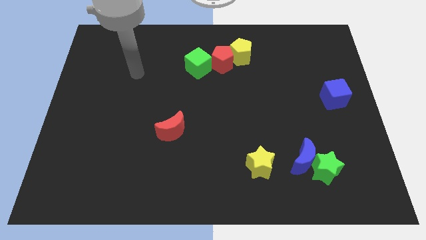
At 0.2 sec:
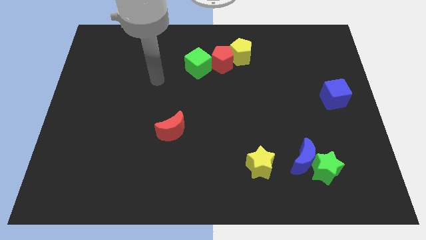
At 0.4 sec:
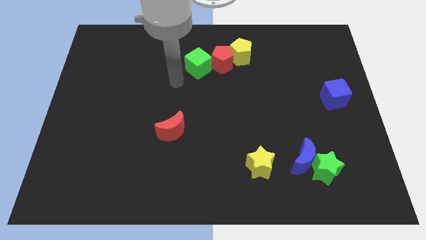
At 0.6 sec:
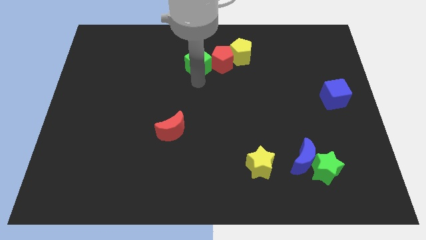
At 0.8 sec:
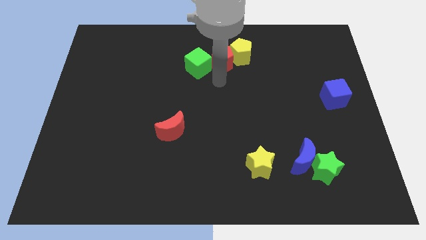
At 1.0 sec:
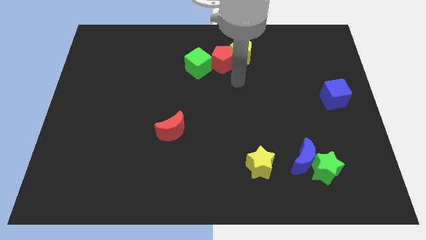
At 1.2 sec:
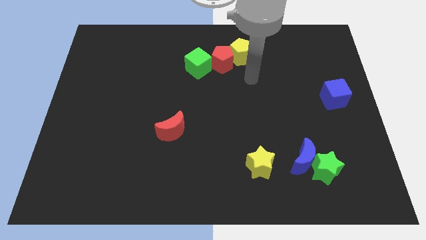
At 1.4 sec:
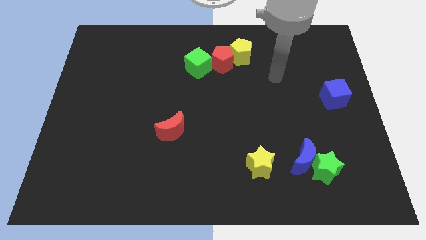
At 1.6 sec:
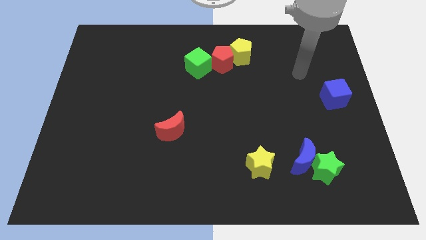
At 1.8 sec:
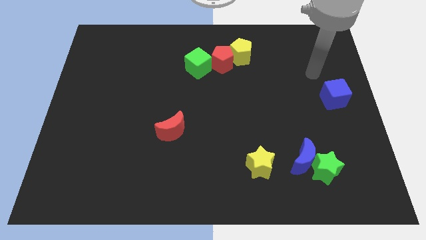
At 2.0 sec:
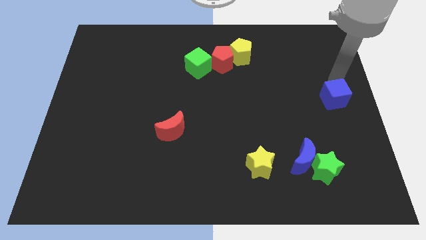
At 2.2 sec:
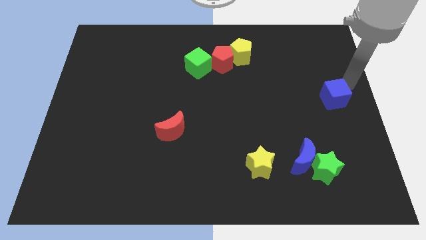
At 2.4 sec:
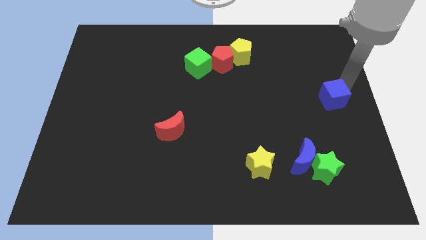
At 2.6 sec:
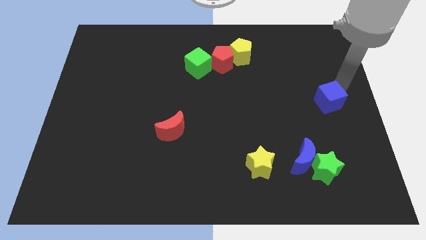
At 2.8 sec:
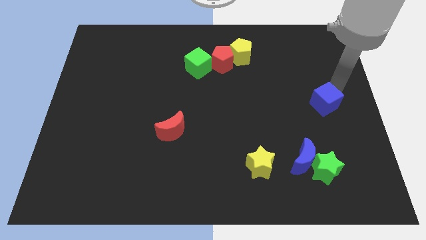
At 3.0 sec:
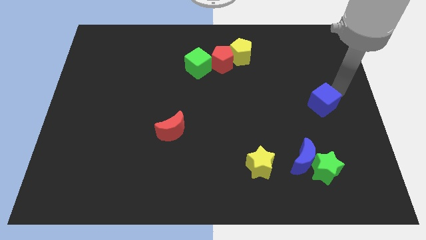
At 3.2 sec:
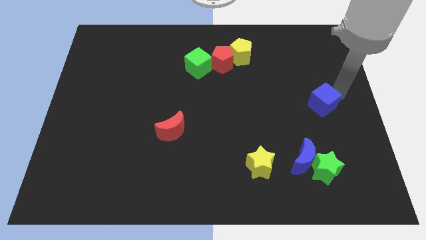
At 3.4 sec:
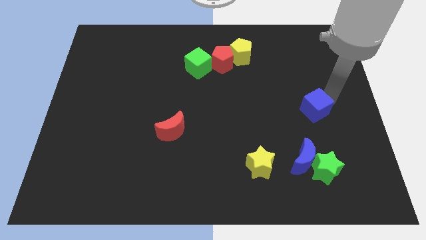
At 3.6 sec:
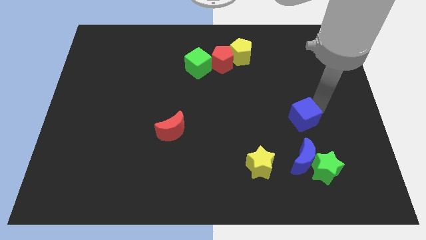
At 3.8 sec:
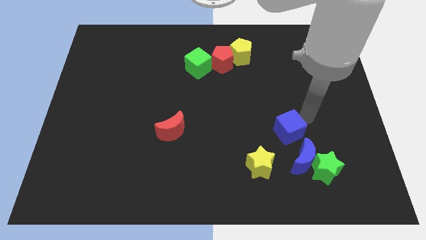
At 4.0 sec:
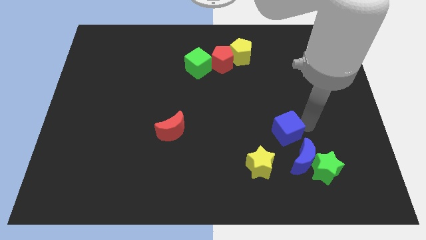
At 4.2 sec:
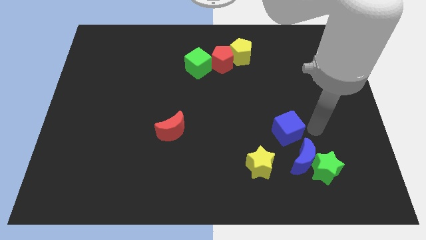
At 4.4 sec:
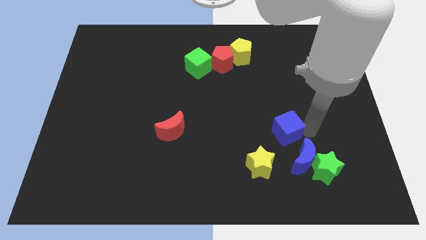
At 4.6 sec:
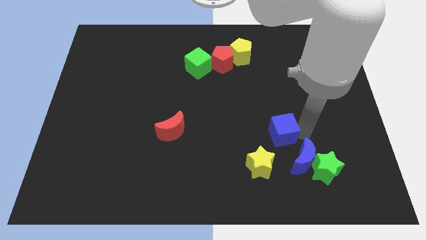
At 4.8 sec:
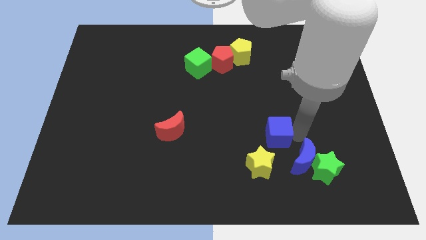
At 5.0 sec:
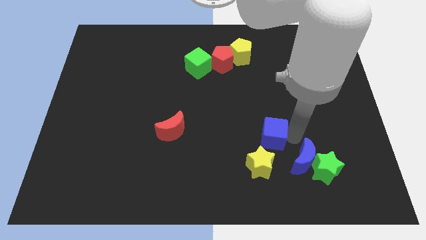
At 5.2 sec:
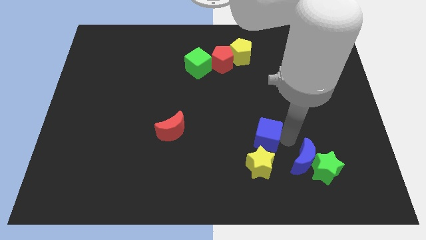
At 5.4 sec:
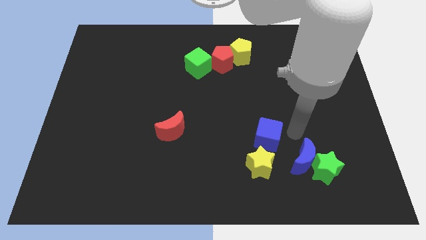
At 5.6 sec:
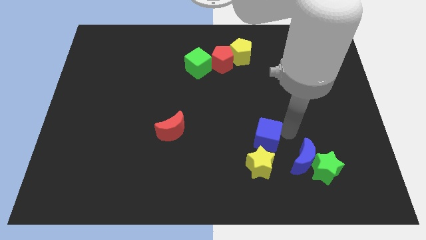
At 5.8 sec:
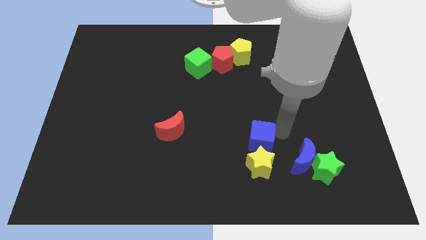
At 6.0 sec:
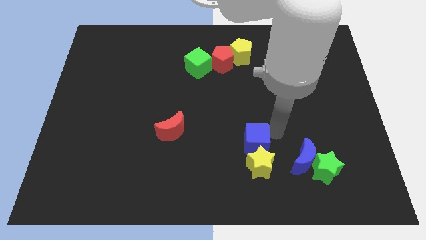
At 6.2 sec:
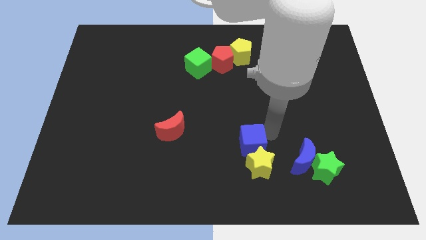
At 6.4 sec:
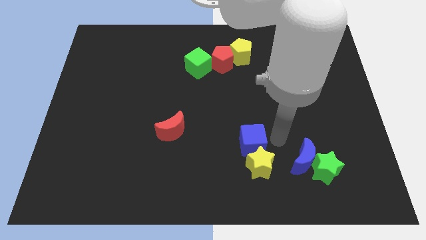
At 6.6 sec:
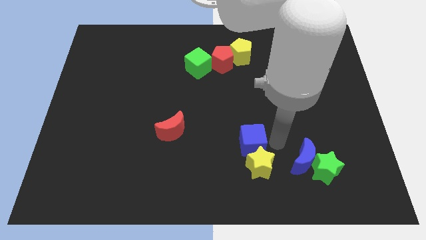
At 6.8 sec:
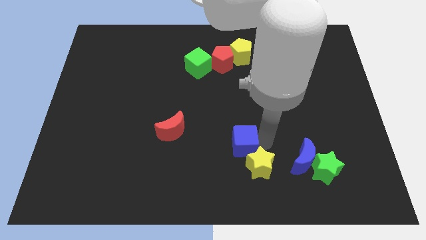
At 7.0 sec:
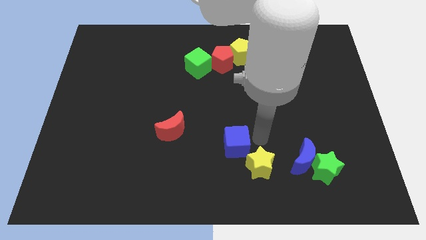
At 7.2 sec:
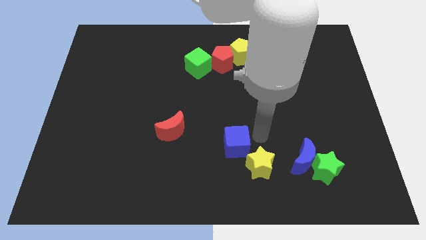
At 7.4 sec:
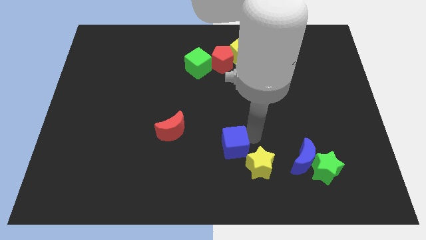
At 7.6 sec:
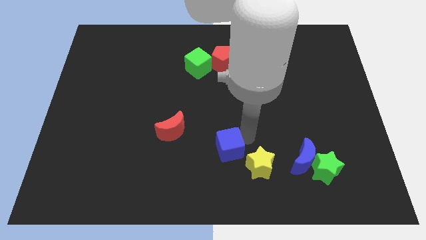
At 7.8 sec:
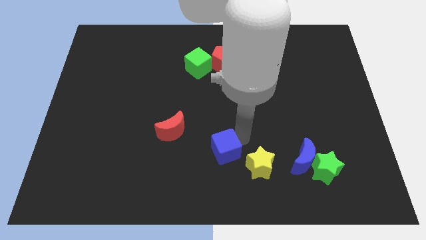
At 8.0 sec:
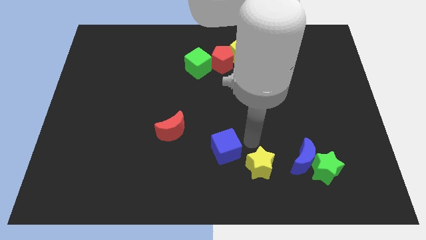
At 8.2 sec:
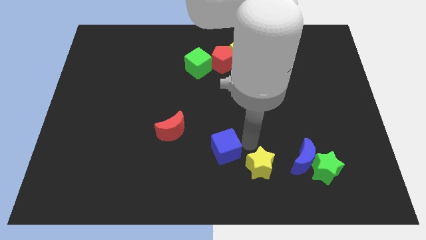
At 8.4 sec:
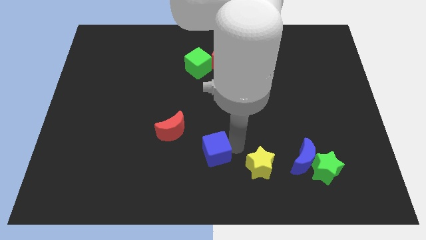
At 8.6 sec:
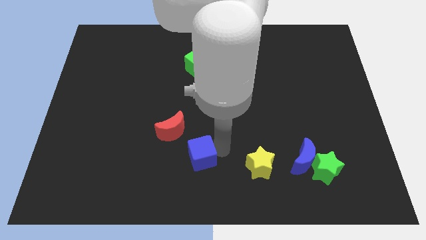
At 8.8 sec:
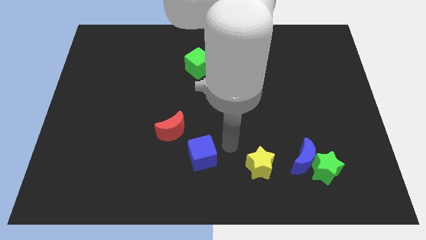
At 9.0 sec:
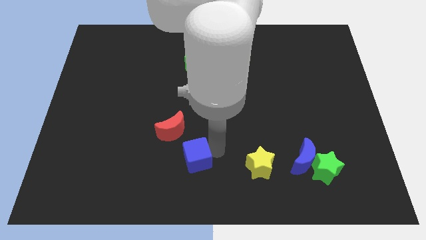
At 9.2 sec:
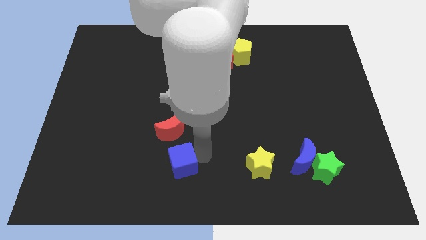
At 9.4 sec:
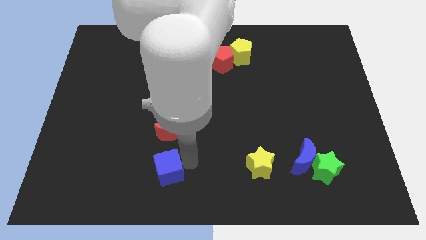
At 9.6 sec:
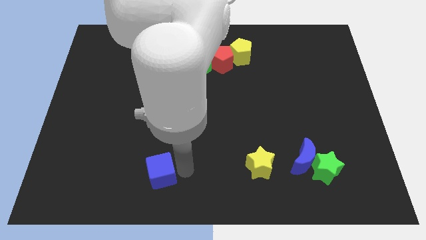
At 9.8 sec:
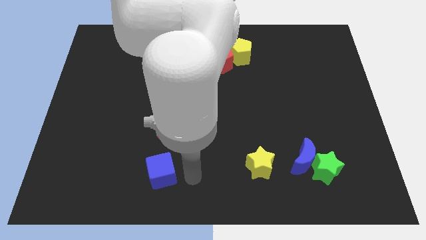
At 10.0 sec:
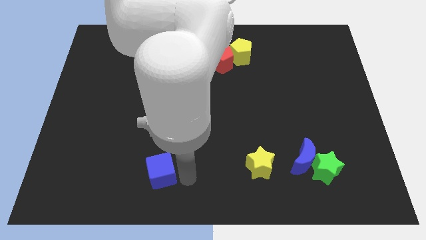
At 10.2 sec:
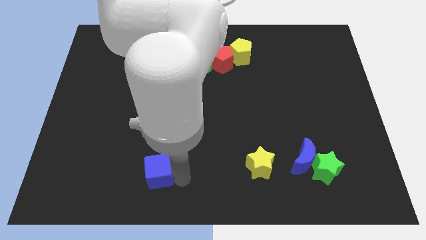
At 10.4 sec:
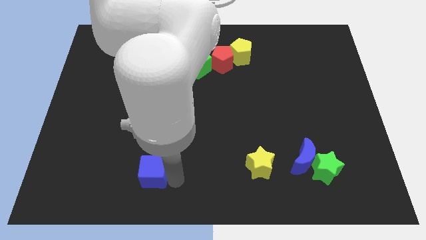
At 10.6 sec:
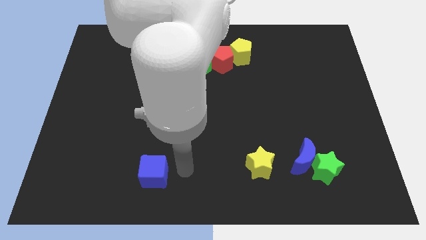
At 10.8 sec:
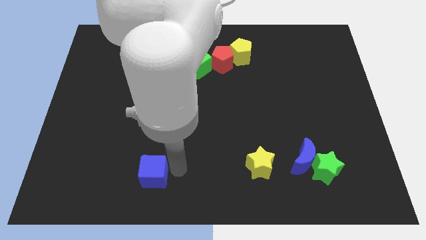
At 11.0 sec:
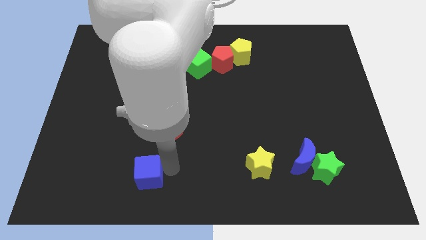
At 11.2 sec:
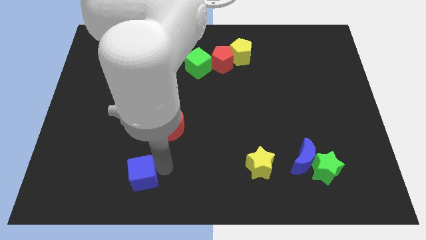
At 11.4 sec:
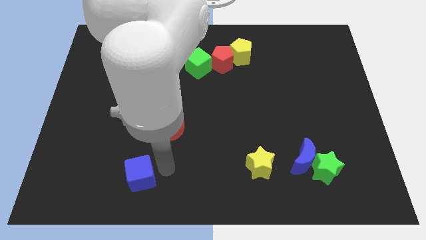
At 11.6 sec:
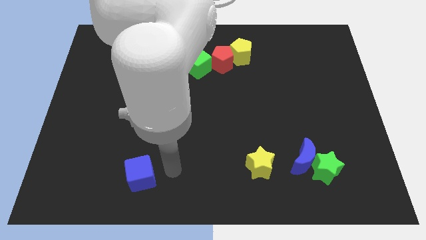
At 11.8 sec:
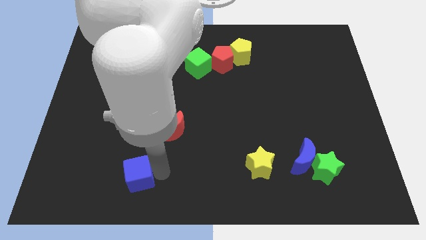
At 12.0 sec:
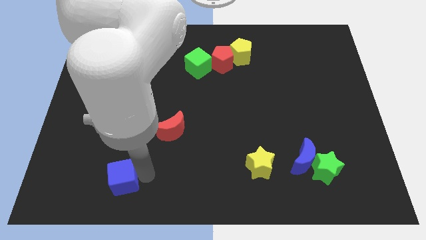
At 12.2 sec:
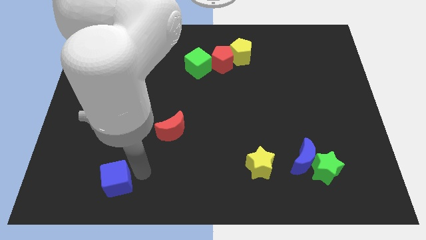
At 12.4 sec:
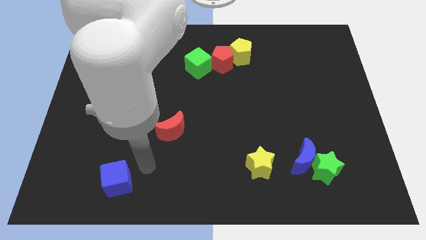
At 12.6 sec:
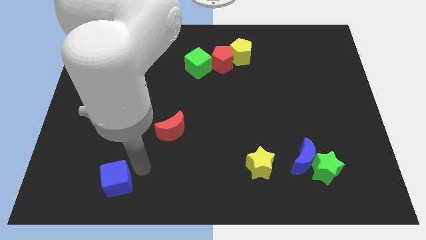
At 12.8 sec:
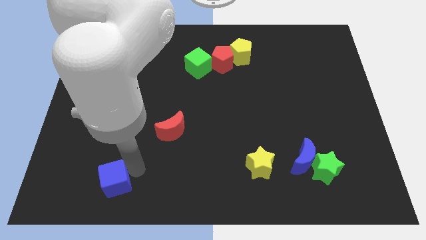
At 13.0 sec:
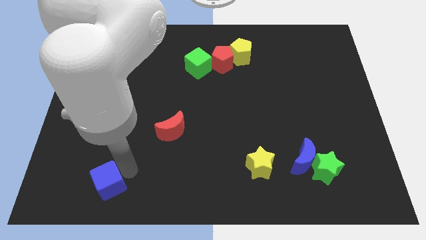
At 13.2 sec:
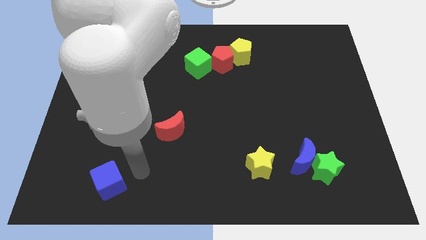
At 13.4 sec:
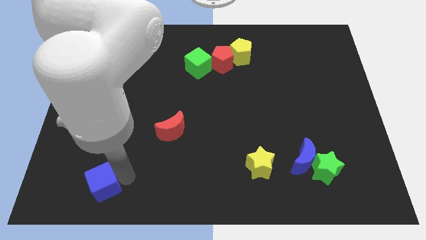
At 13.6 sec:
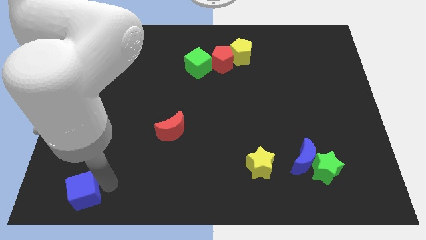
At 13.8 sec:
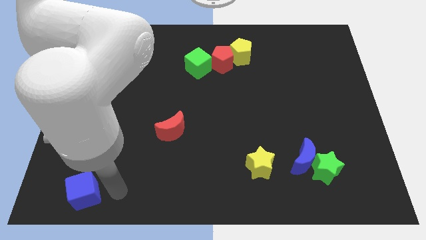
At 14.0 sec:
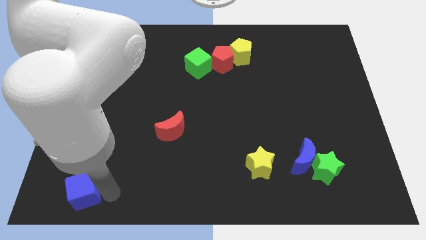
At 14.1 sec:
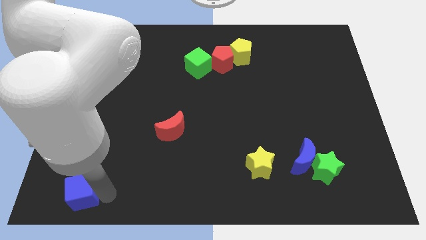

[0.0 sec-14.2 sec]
push the blue cube to the lower left corner
